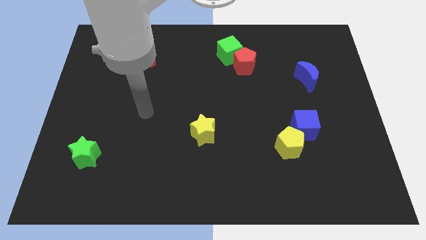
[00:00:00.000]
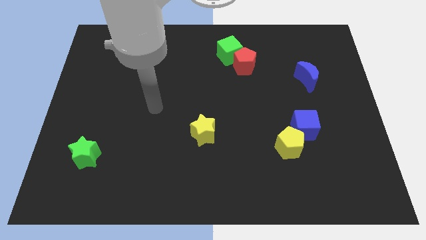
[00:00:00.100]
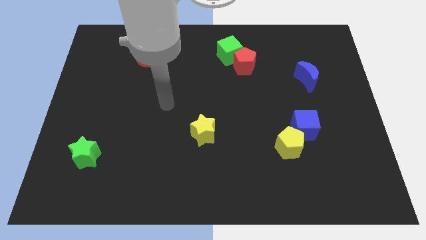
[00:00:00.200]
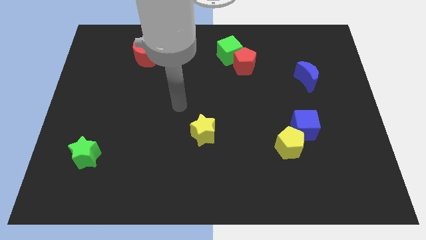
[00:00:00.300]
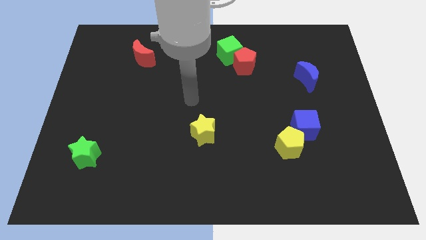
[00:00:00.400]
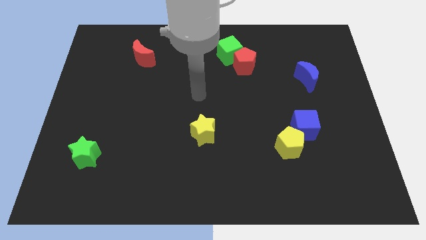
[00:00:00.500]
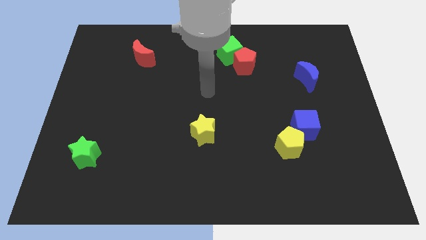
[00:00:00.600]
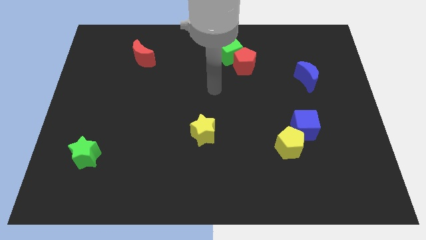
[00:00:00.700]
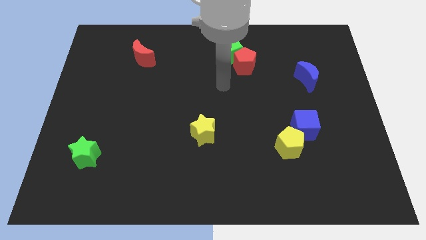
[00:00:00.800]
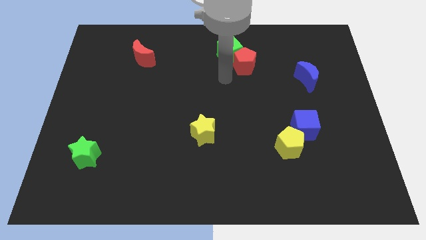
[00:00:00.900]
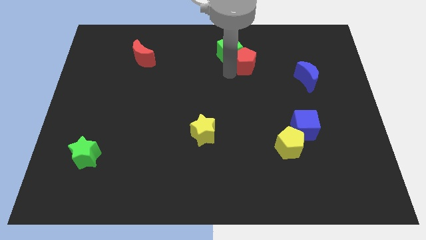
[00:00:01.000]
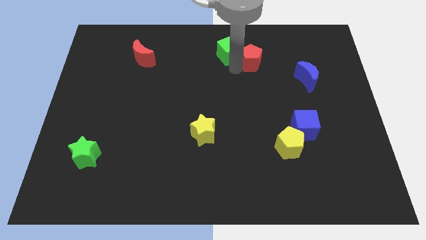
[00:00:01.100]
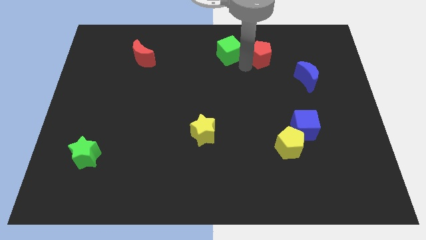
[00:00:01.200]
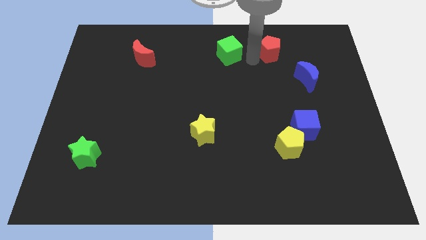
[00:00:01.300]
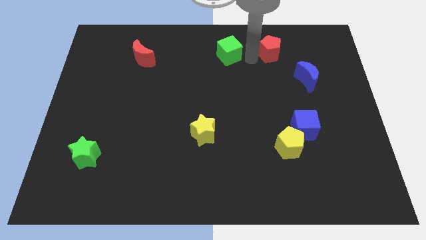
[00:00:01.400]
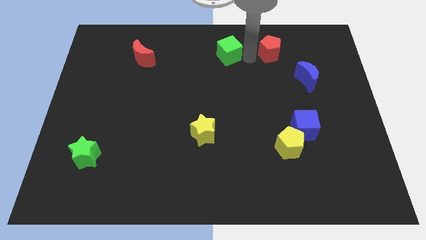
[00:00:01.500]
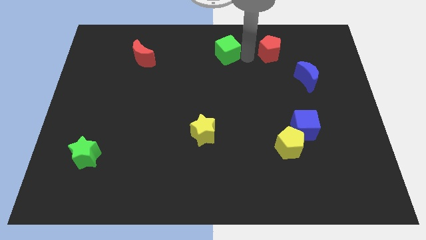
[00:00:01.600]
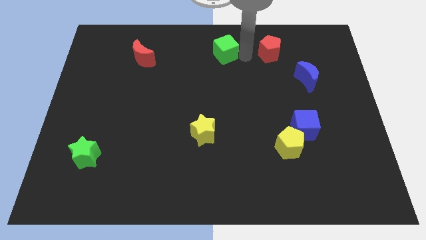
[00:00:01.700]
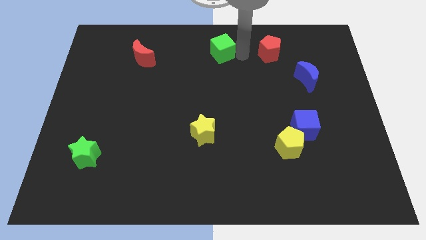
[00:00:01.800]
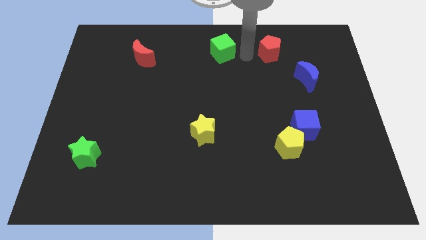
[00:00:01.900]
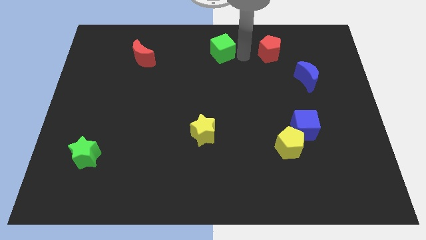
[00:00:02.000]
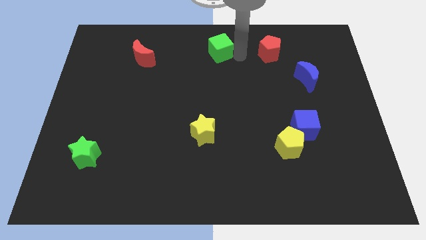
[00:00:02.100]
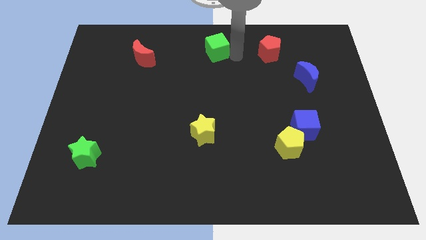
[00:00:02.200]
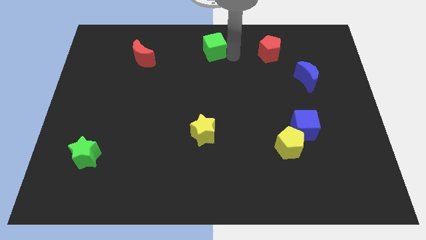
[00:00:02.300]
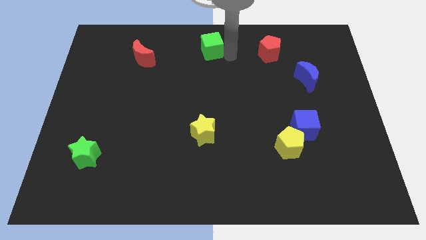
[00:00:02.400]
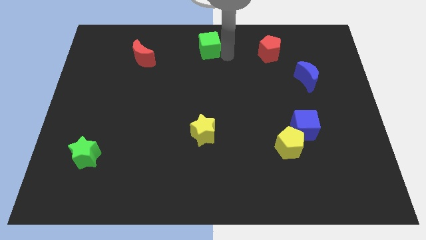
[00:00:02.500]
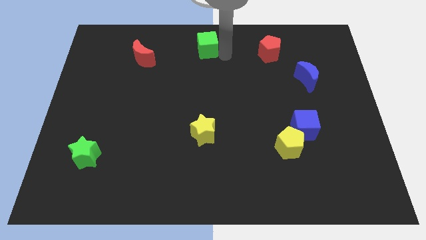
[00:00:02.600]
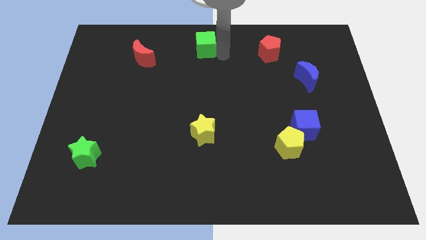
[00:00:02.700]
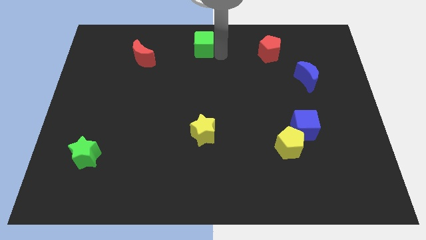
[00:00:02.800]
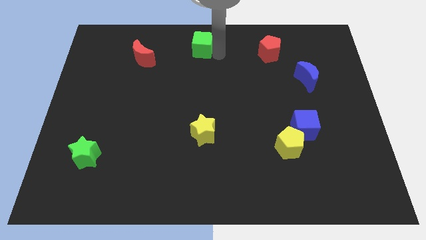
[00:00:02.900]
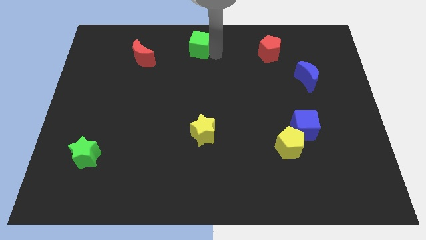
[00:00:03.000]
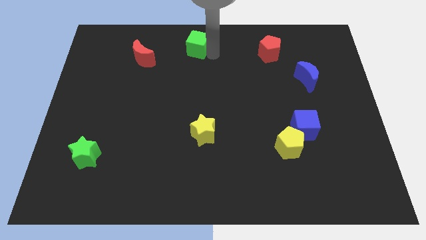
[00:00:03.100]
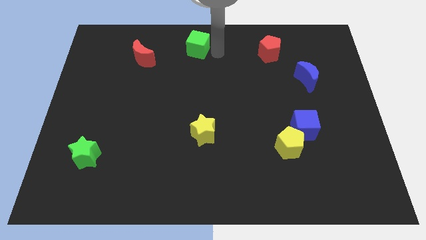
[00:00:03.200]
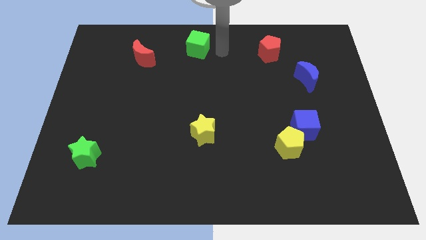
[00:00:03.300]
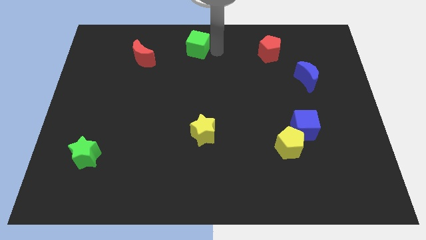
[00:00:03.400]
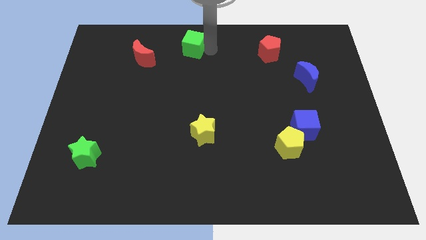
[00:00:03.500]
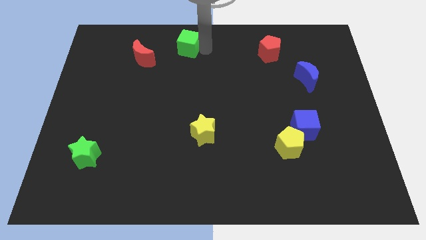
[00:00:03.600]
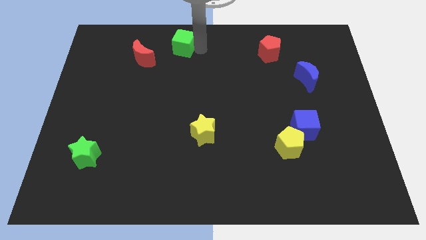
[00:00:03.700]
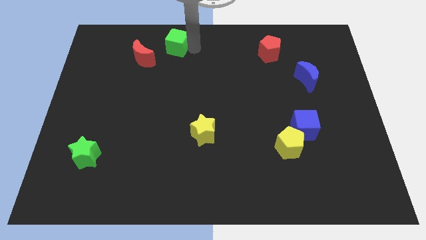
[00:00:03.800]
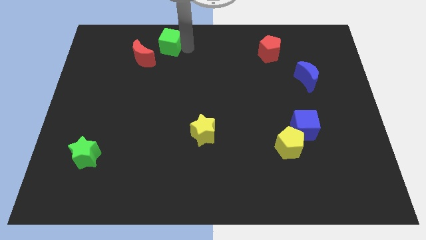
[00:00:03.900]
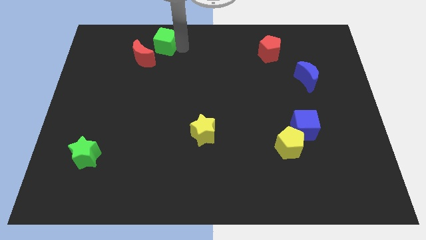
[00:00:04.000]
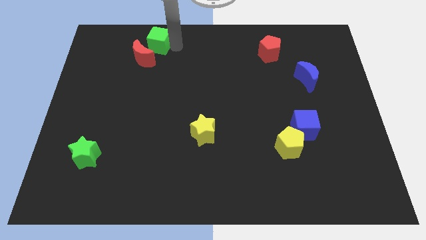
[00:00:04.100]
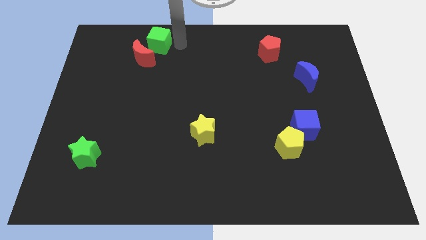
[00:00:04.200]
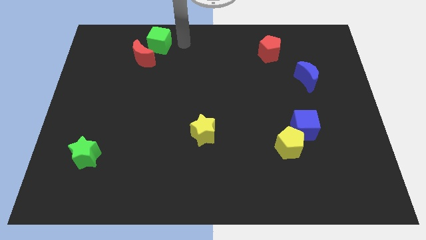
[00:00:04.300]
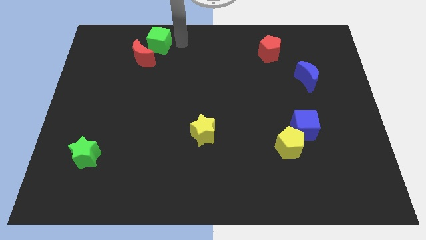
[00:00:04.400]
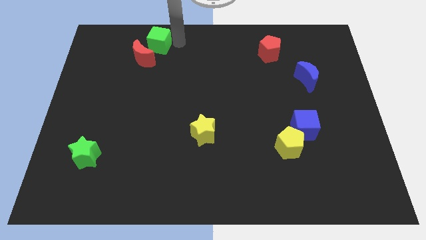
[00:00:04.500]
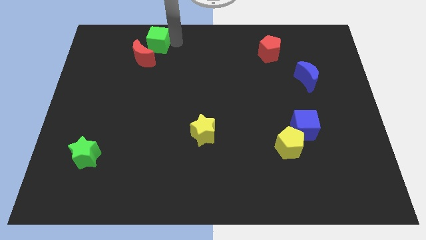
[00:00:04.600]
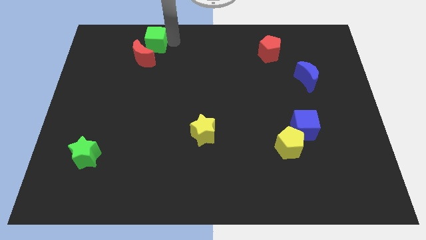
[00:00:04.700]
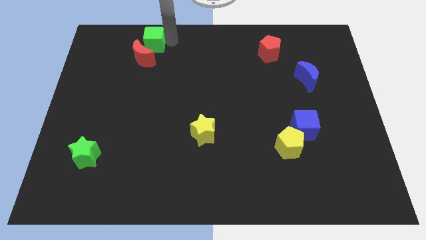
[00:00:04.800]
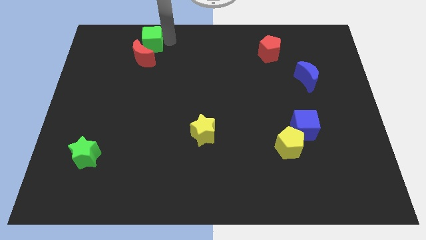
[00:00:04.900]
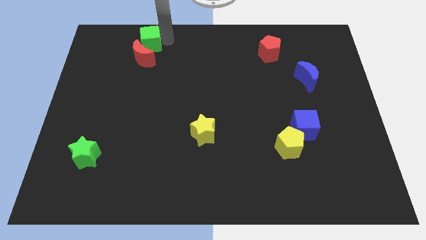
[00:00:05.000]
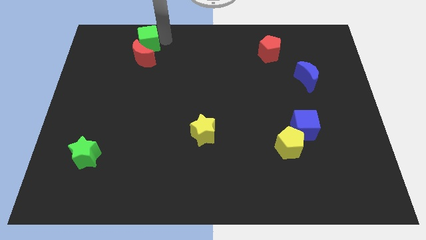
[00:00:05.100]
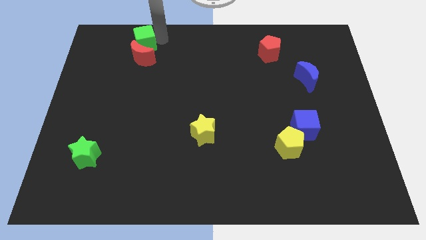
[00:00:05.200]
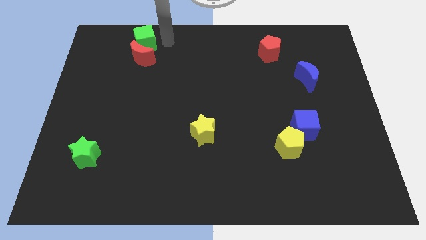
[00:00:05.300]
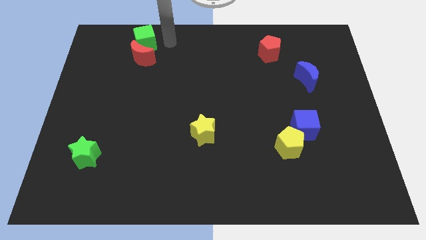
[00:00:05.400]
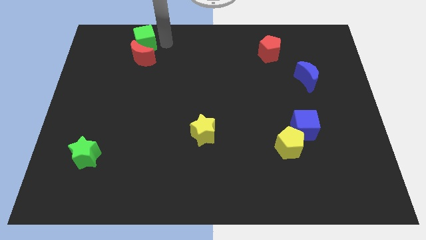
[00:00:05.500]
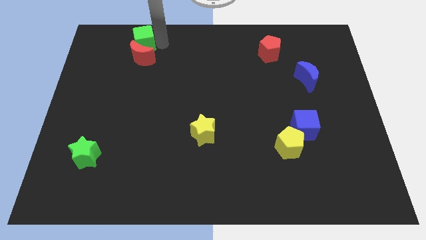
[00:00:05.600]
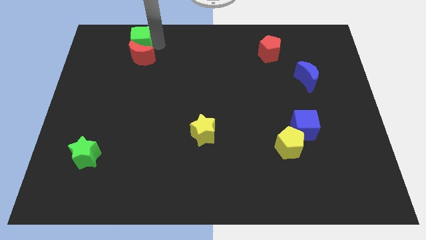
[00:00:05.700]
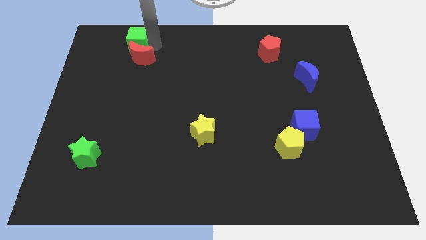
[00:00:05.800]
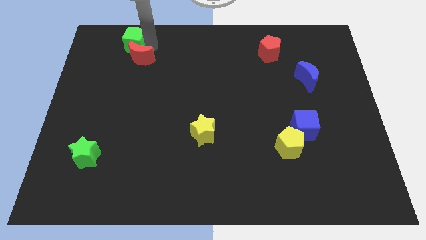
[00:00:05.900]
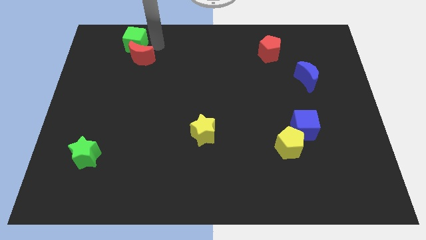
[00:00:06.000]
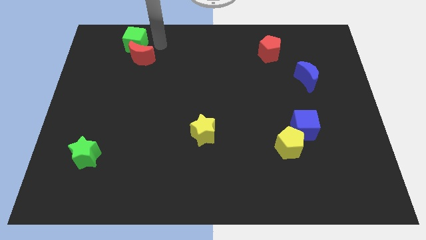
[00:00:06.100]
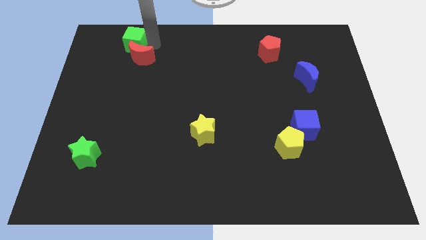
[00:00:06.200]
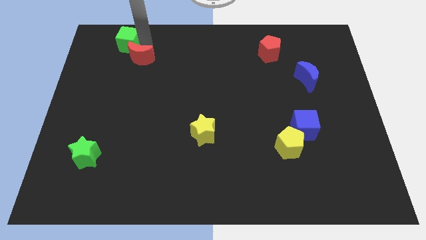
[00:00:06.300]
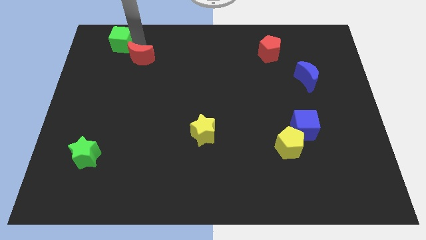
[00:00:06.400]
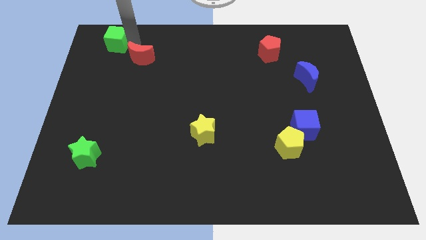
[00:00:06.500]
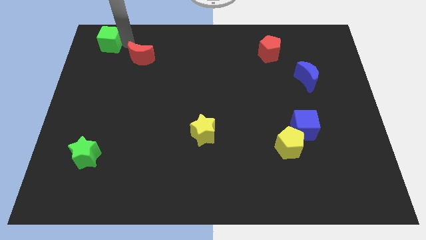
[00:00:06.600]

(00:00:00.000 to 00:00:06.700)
slide the green cube to the top left corner
